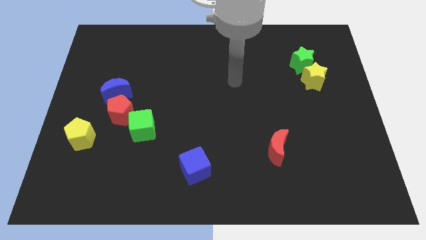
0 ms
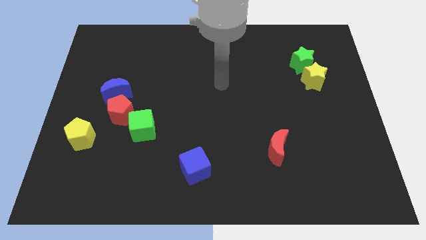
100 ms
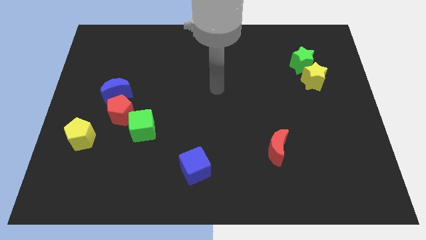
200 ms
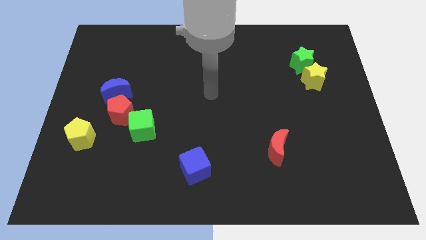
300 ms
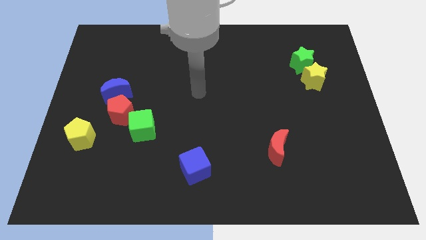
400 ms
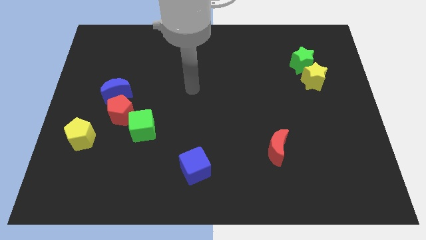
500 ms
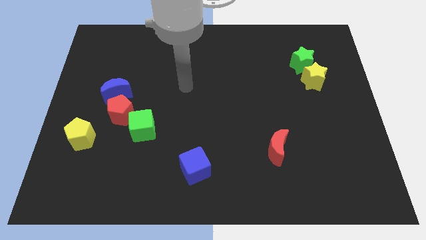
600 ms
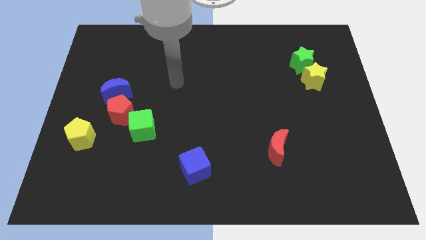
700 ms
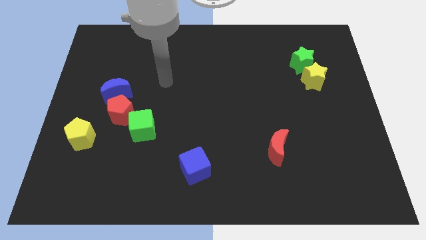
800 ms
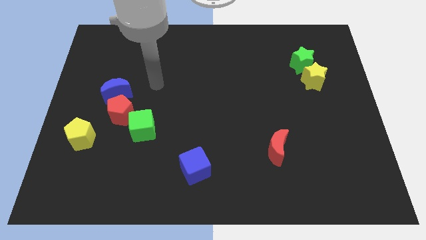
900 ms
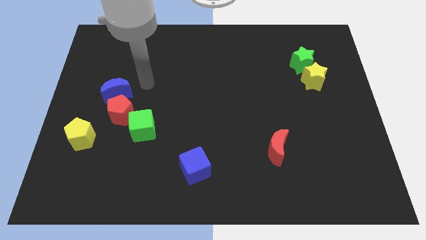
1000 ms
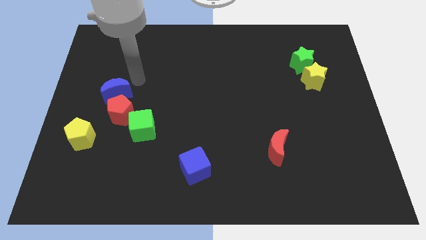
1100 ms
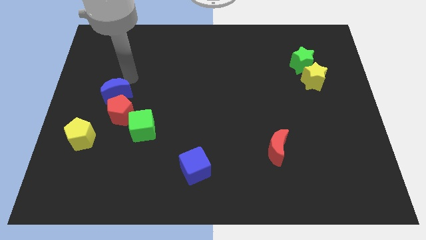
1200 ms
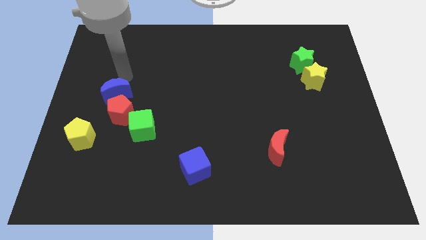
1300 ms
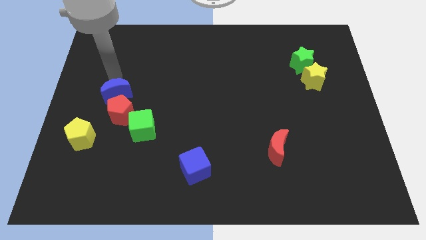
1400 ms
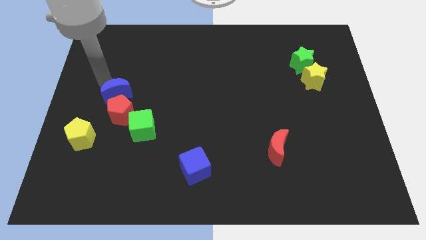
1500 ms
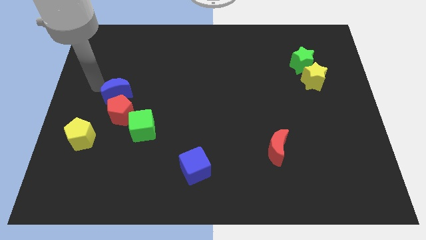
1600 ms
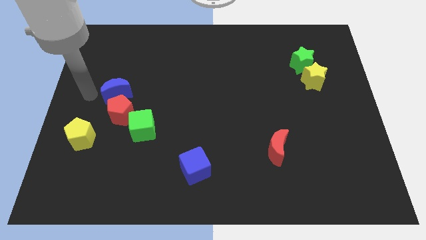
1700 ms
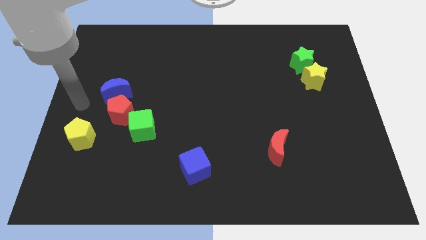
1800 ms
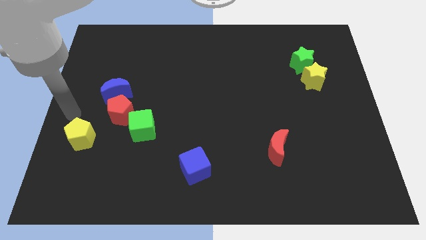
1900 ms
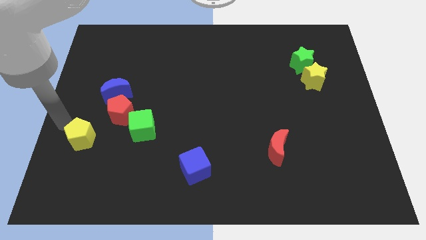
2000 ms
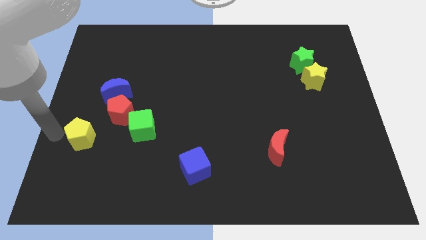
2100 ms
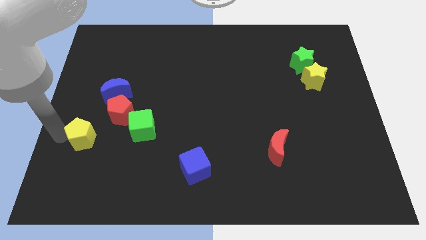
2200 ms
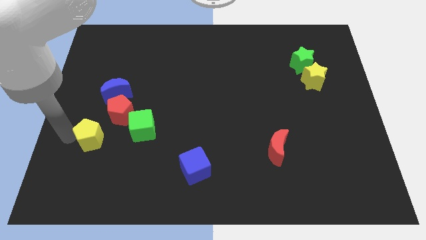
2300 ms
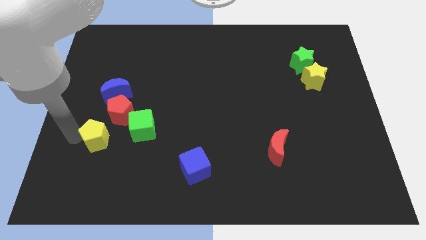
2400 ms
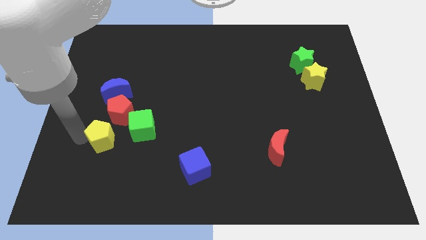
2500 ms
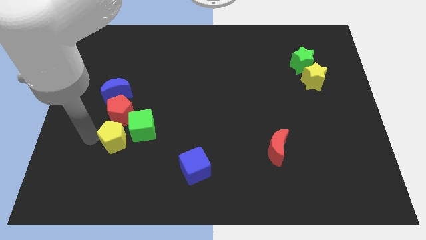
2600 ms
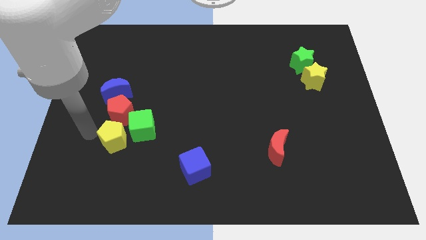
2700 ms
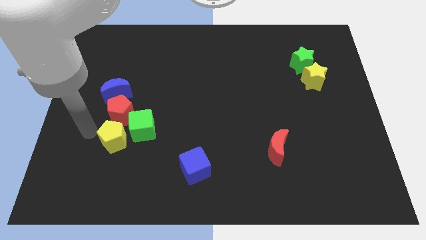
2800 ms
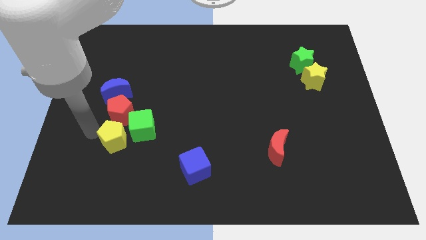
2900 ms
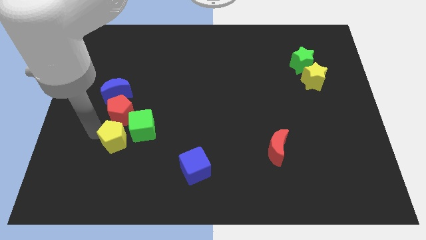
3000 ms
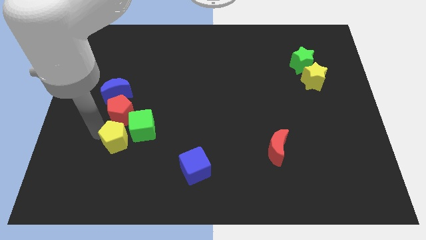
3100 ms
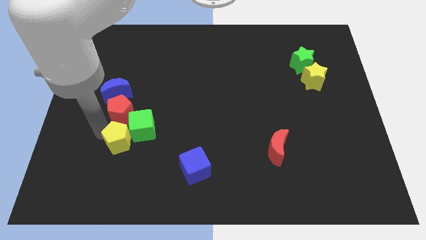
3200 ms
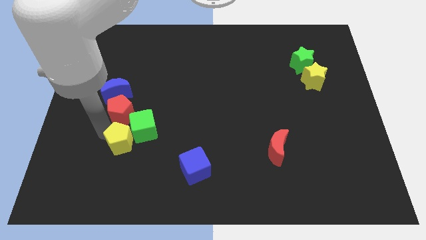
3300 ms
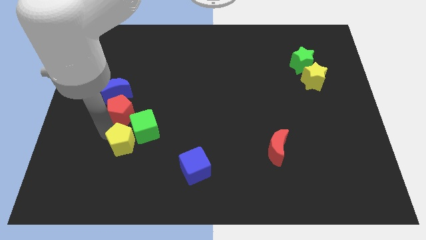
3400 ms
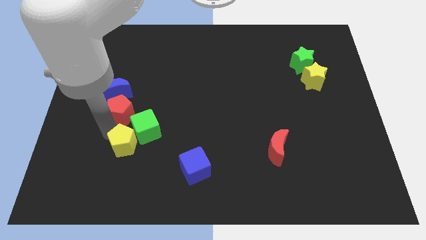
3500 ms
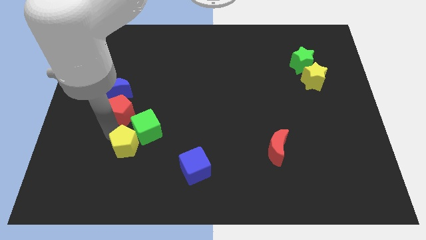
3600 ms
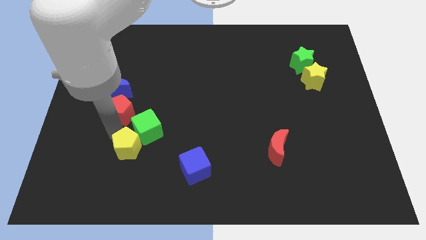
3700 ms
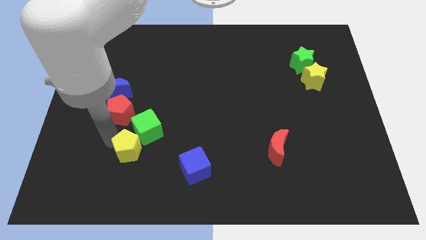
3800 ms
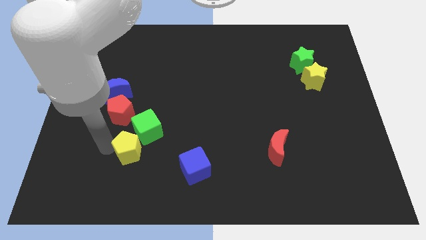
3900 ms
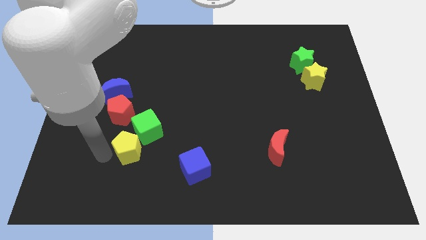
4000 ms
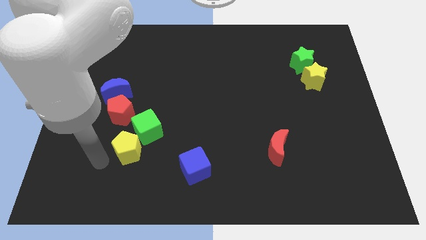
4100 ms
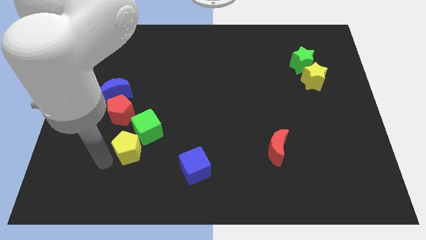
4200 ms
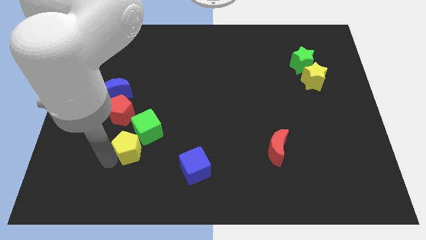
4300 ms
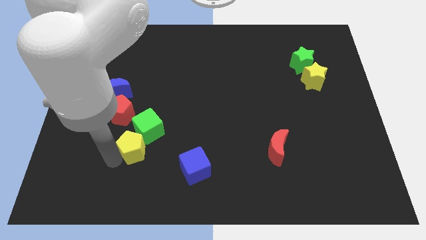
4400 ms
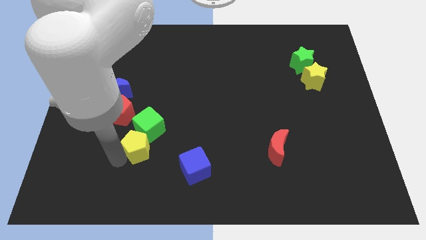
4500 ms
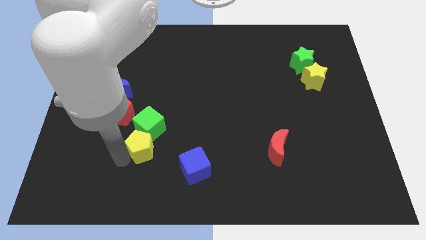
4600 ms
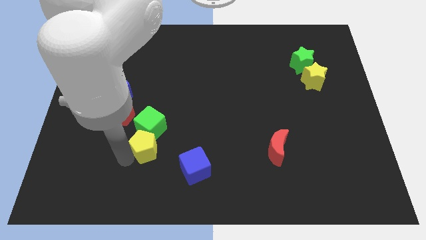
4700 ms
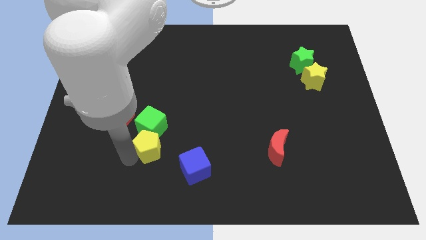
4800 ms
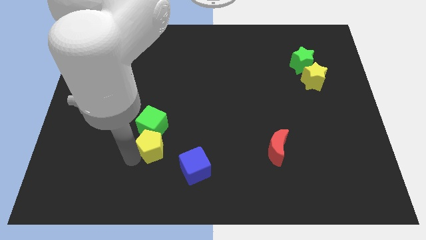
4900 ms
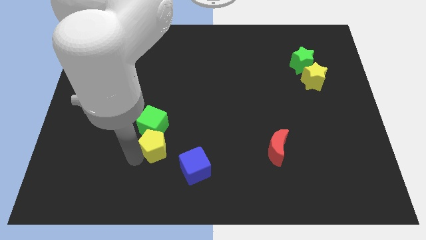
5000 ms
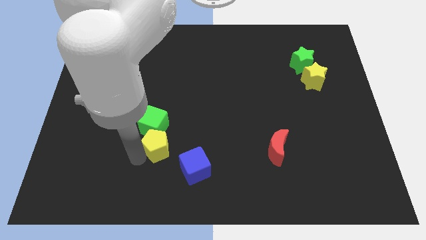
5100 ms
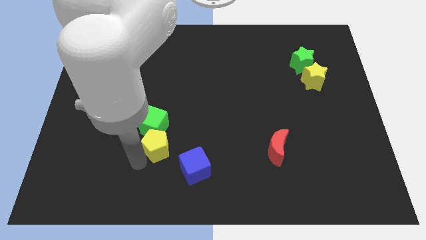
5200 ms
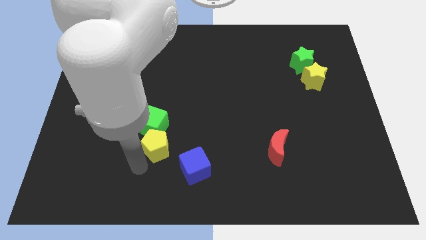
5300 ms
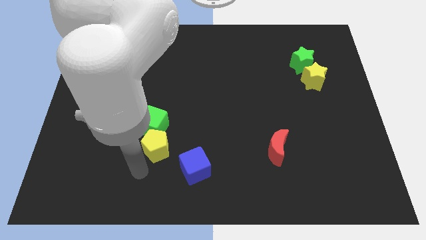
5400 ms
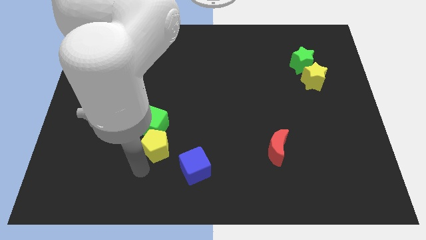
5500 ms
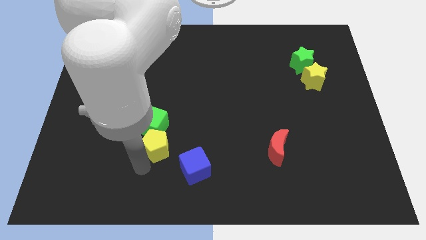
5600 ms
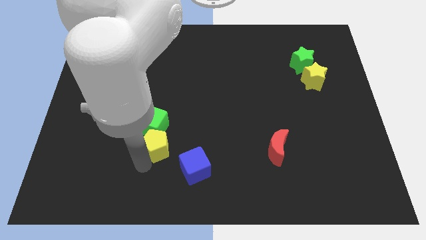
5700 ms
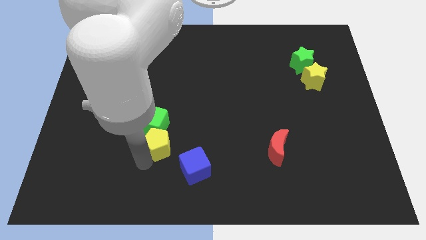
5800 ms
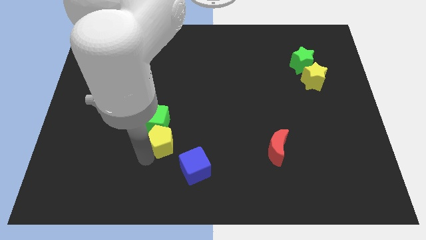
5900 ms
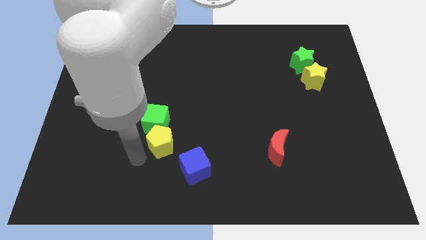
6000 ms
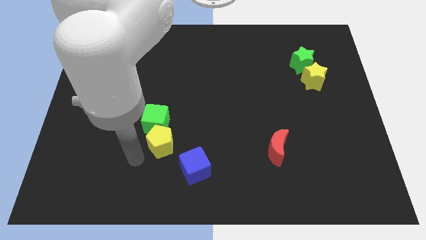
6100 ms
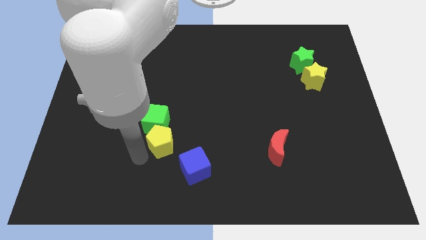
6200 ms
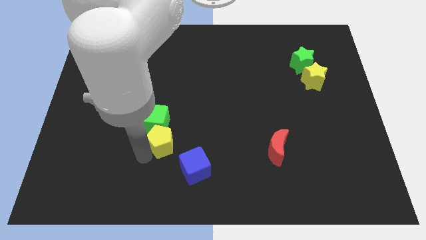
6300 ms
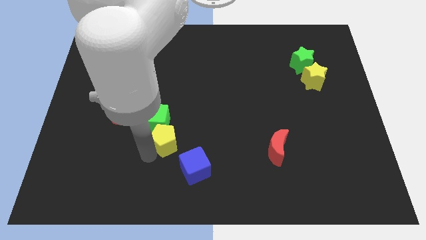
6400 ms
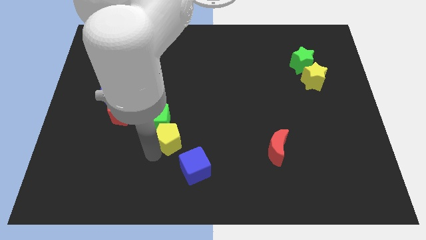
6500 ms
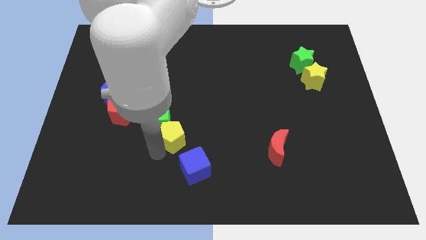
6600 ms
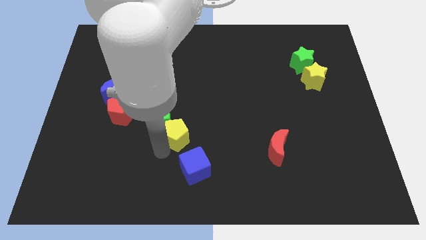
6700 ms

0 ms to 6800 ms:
put the yellow pentagon to the right of the green cube
